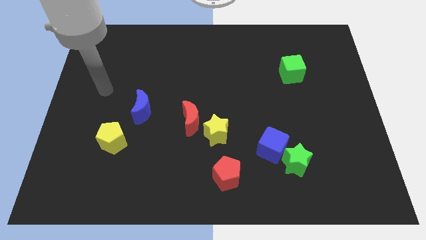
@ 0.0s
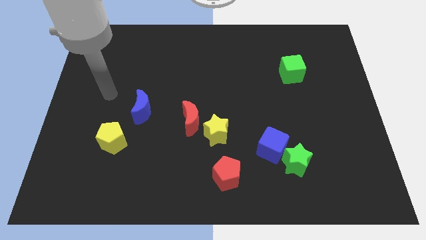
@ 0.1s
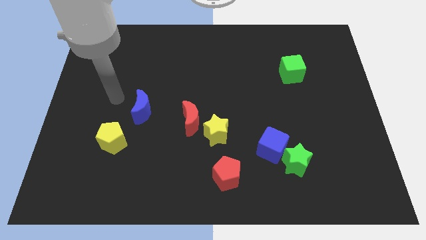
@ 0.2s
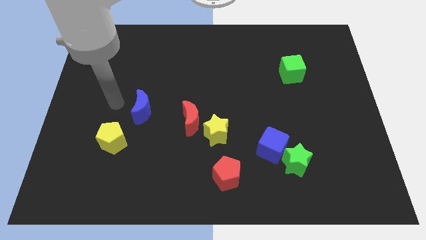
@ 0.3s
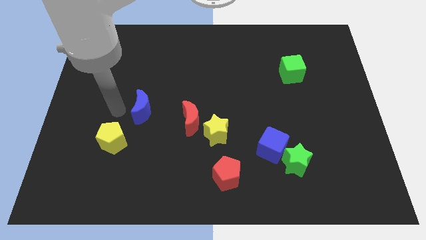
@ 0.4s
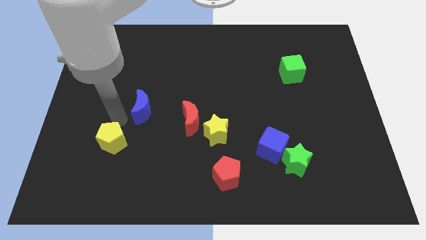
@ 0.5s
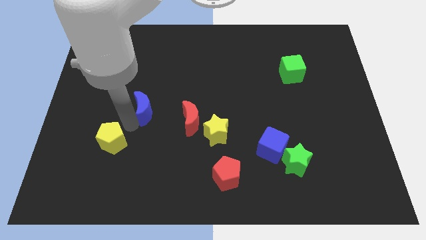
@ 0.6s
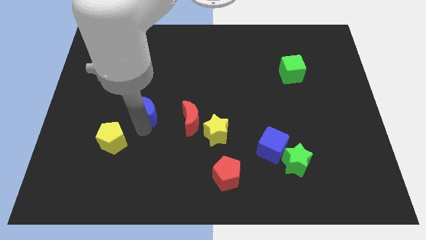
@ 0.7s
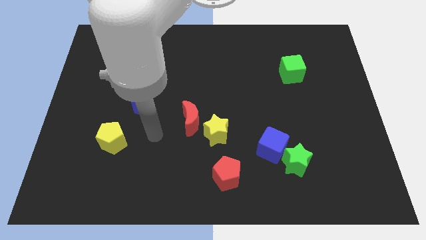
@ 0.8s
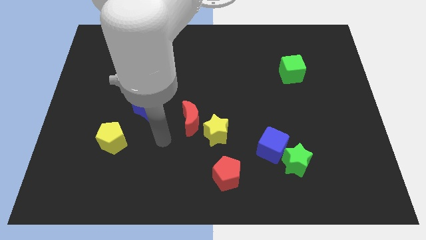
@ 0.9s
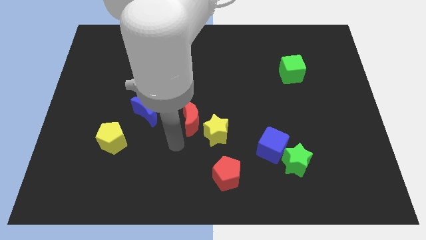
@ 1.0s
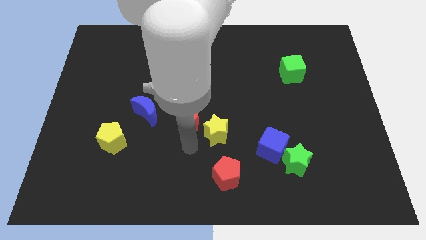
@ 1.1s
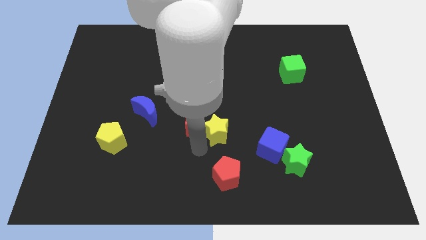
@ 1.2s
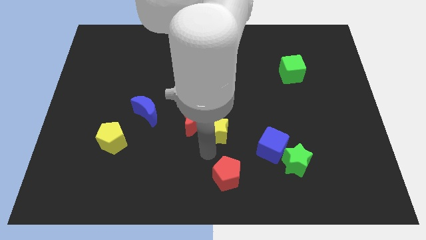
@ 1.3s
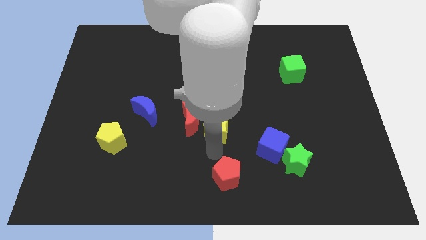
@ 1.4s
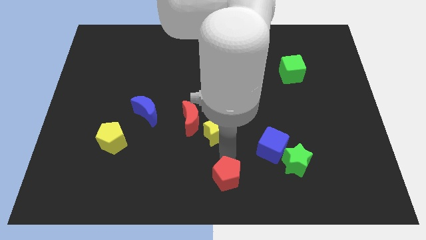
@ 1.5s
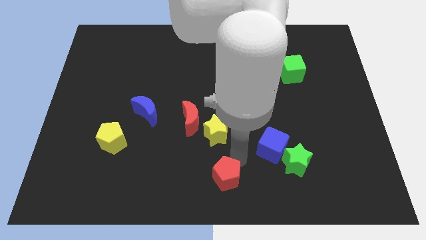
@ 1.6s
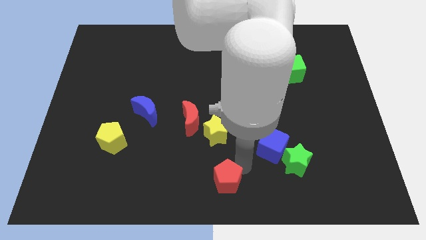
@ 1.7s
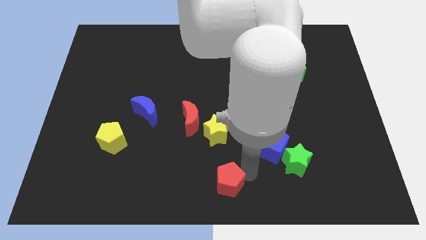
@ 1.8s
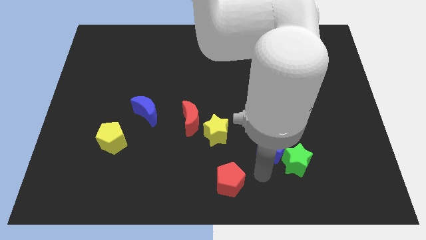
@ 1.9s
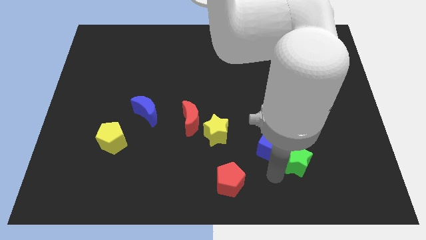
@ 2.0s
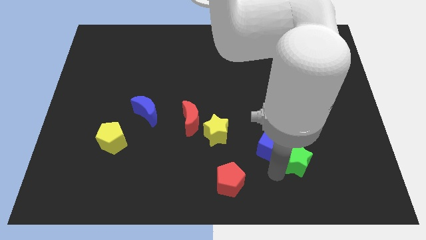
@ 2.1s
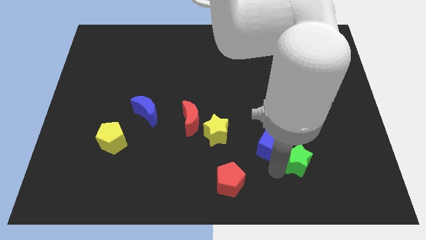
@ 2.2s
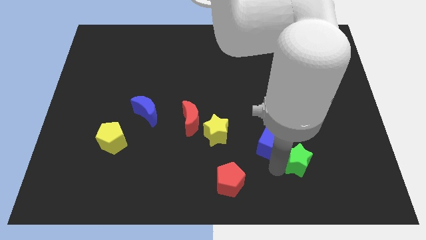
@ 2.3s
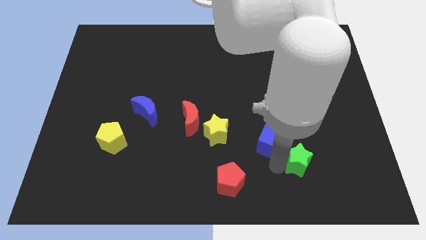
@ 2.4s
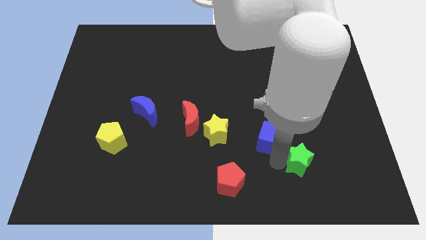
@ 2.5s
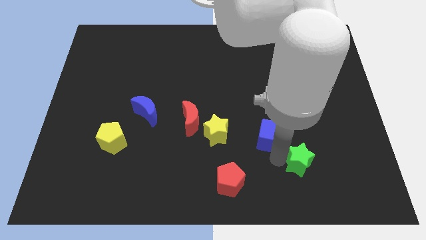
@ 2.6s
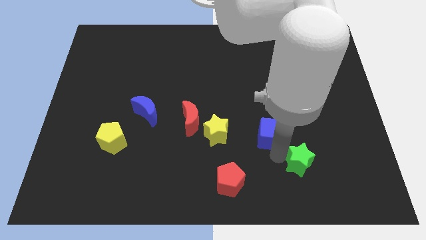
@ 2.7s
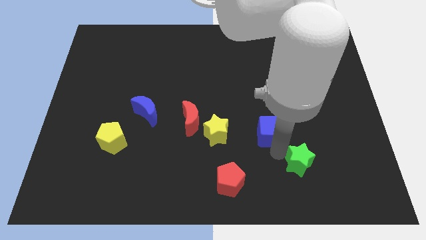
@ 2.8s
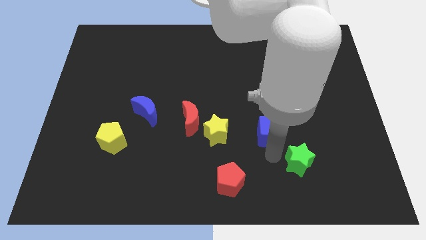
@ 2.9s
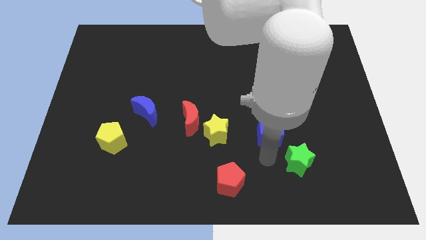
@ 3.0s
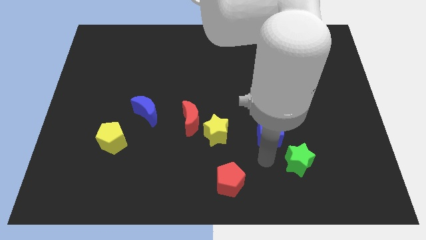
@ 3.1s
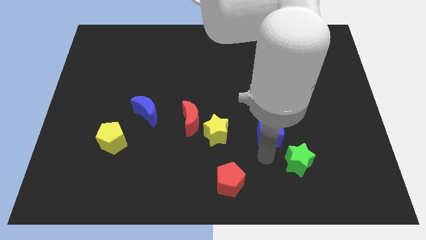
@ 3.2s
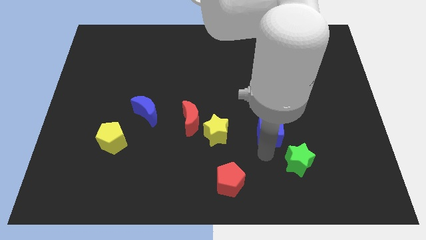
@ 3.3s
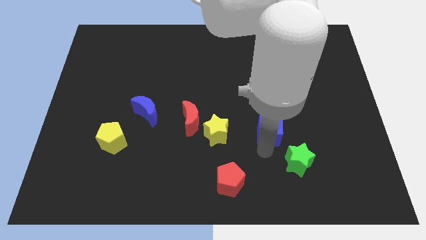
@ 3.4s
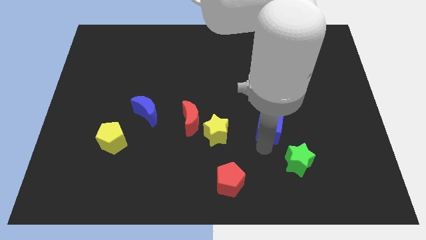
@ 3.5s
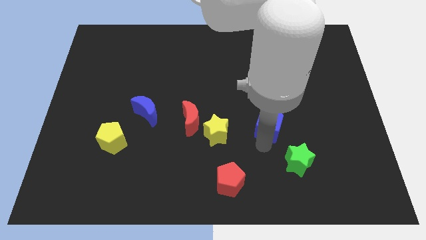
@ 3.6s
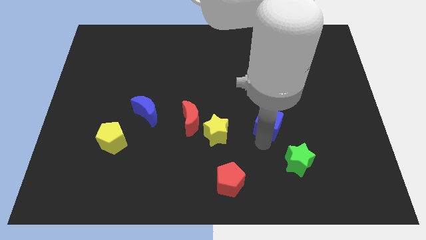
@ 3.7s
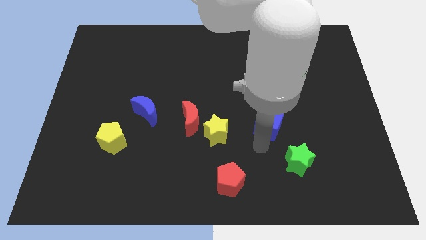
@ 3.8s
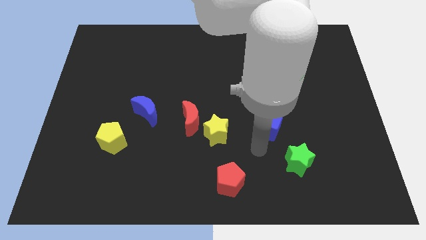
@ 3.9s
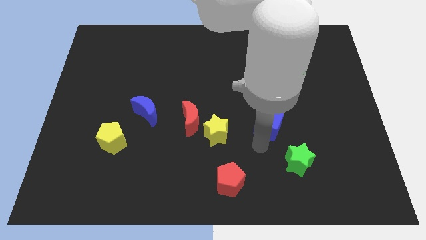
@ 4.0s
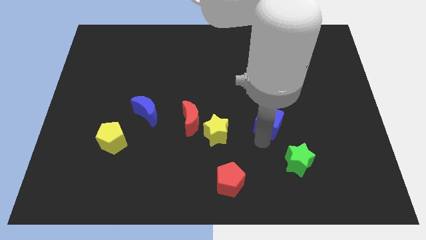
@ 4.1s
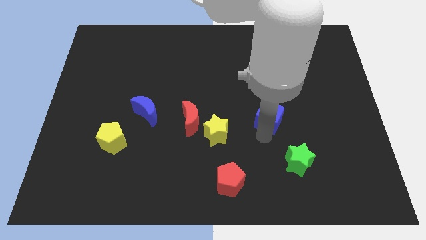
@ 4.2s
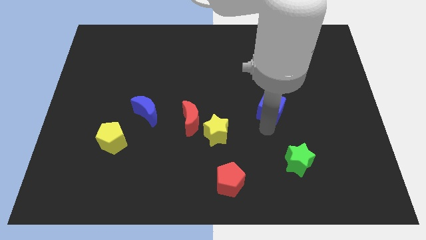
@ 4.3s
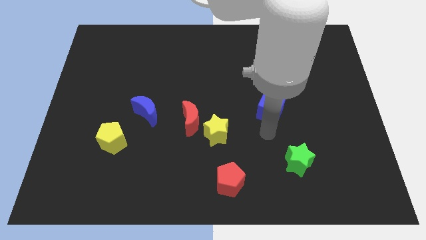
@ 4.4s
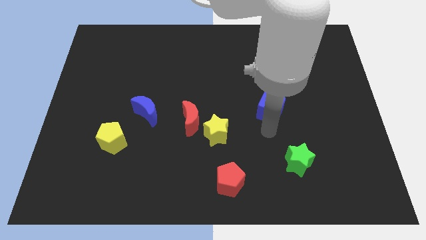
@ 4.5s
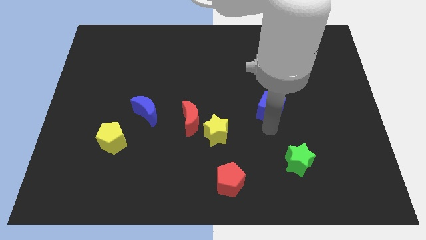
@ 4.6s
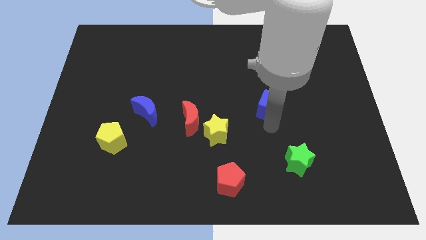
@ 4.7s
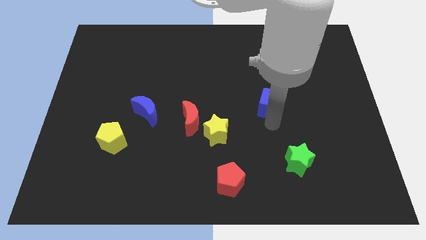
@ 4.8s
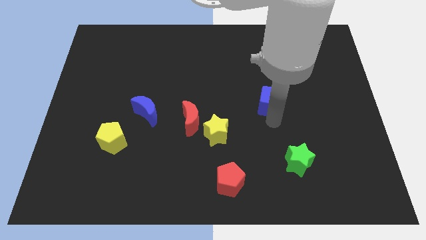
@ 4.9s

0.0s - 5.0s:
push the blue cube to the bottom left of the green cube

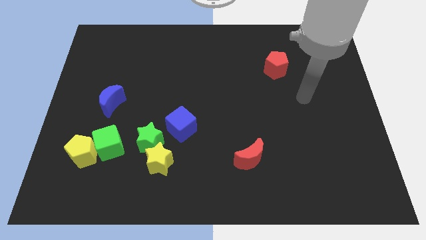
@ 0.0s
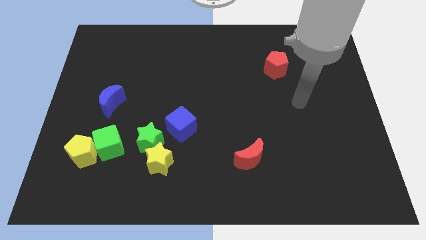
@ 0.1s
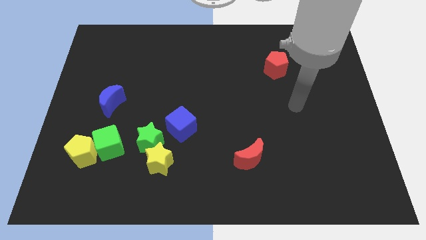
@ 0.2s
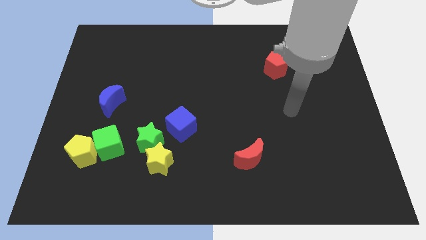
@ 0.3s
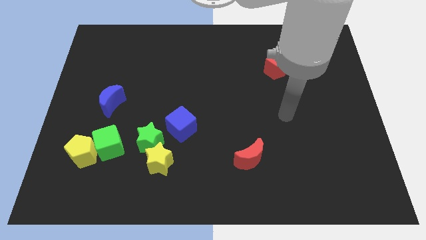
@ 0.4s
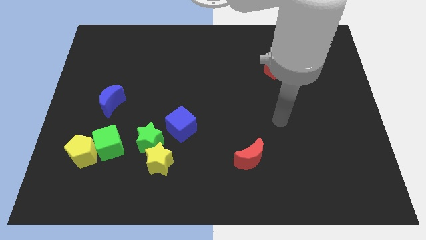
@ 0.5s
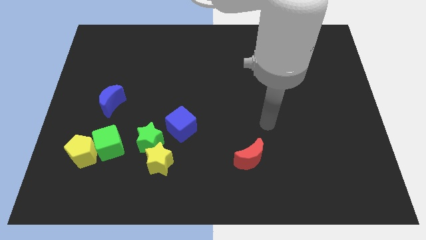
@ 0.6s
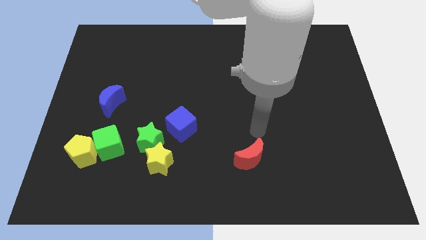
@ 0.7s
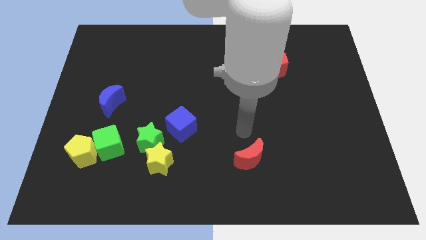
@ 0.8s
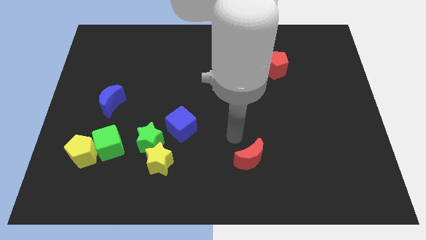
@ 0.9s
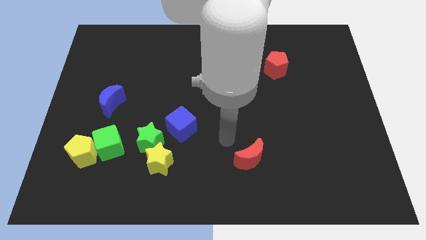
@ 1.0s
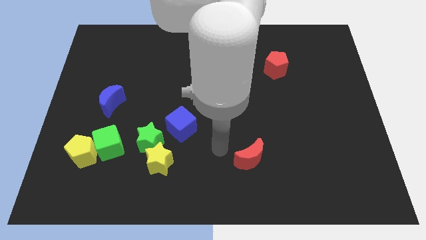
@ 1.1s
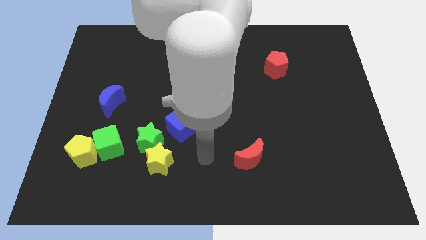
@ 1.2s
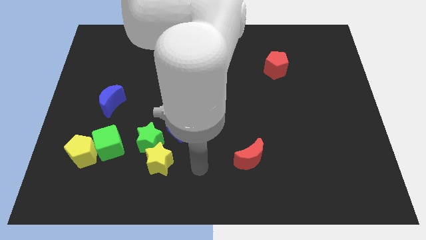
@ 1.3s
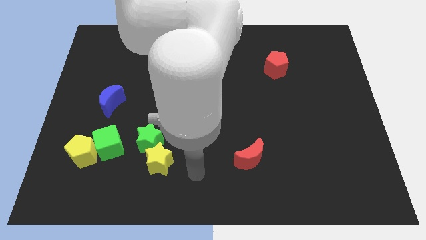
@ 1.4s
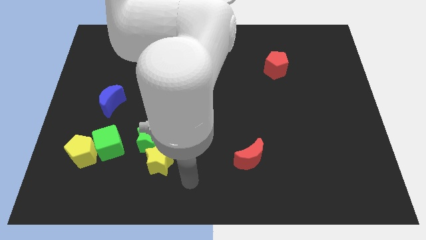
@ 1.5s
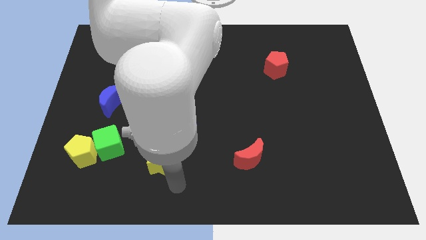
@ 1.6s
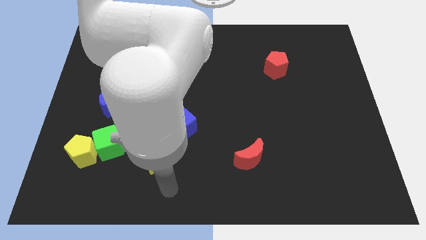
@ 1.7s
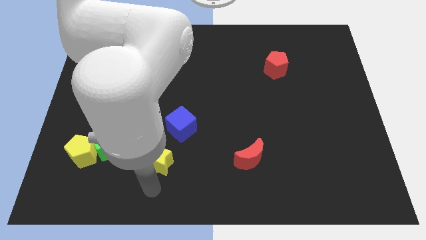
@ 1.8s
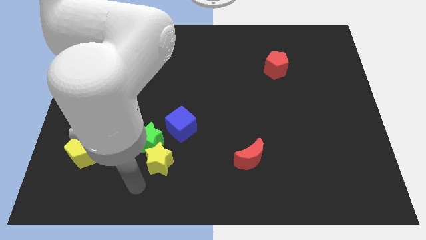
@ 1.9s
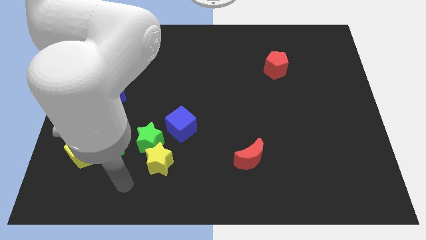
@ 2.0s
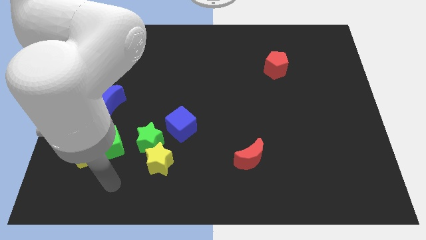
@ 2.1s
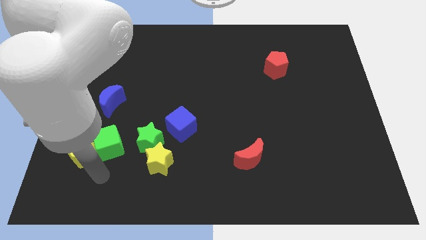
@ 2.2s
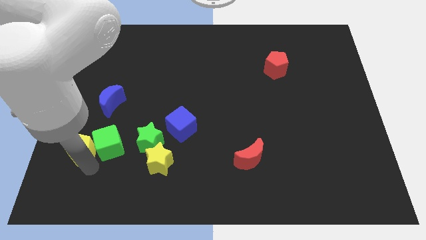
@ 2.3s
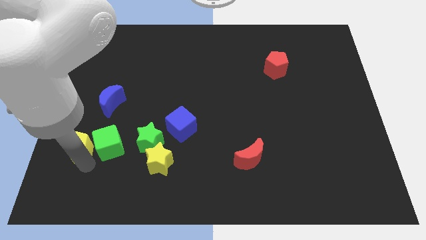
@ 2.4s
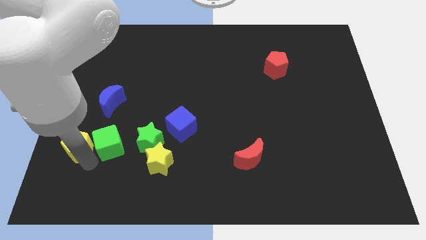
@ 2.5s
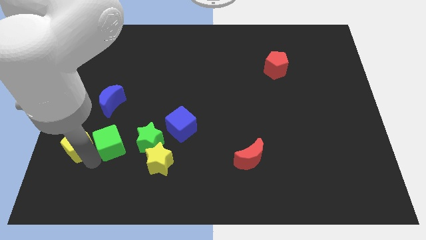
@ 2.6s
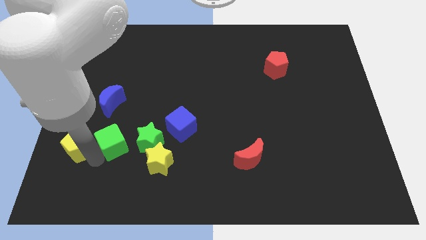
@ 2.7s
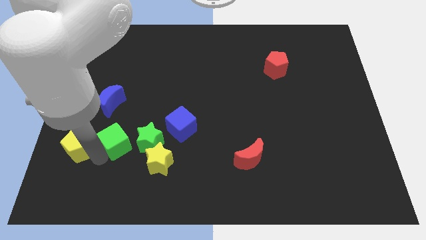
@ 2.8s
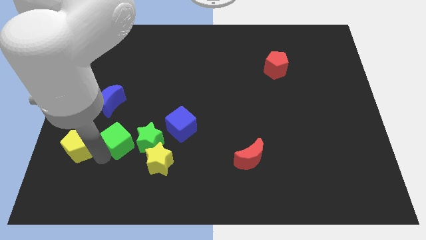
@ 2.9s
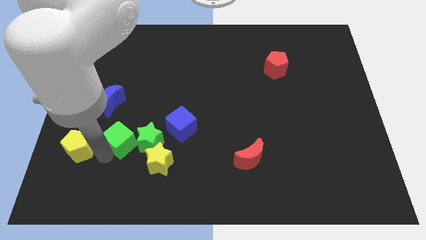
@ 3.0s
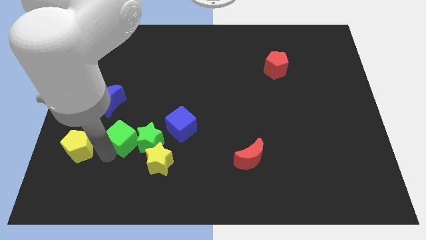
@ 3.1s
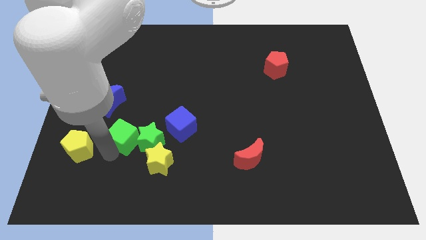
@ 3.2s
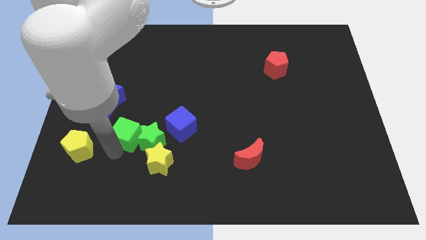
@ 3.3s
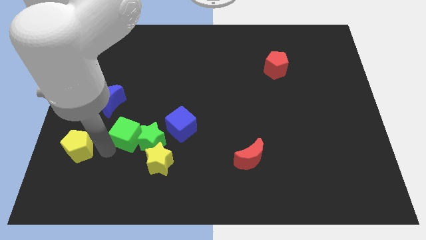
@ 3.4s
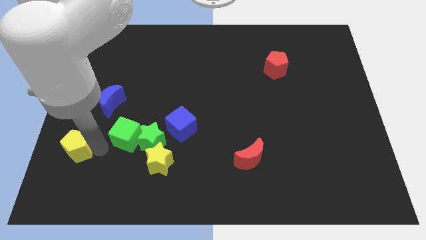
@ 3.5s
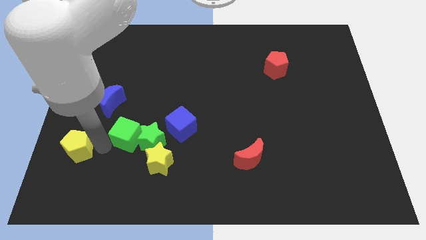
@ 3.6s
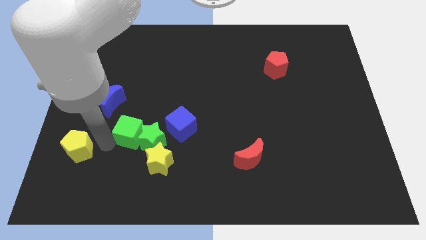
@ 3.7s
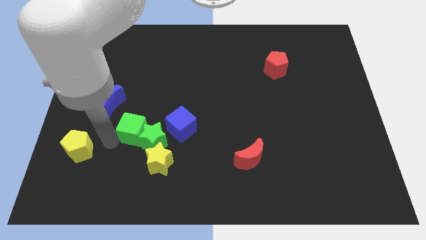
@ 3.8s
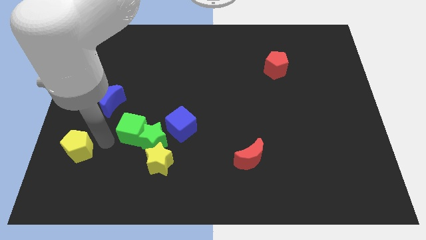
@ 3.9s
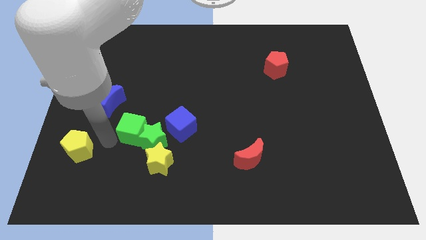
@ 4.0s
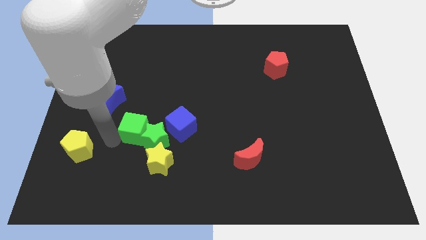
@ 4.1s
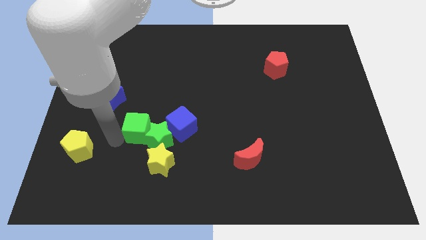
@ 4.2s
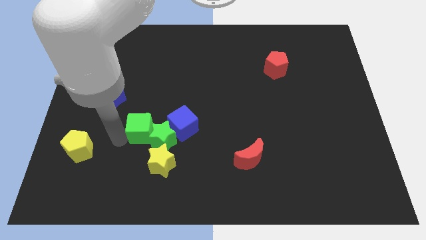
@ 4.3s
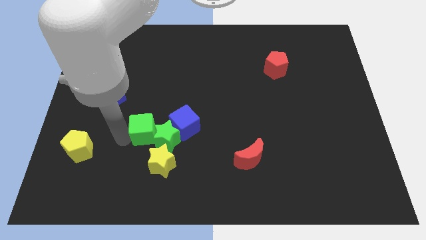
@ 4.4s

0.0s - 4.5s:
slide the green cube to the top side of the yellow star
